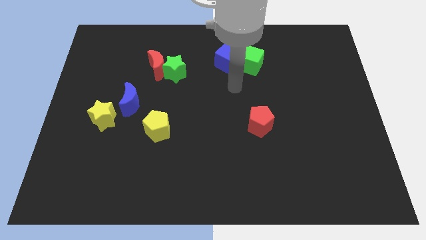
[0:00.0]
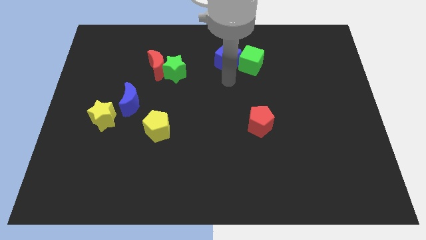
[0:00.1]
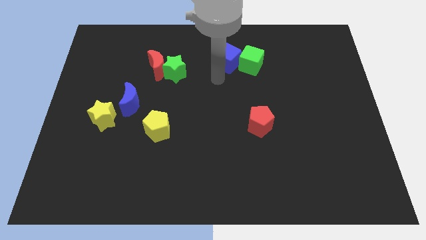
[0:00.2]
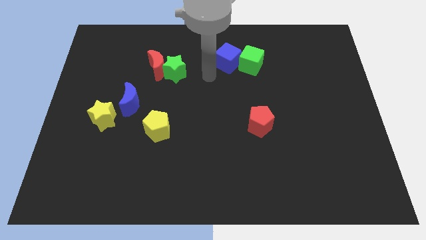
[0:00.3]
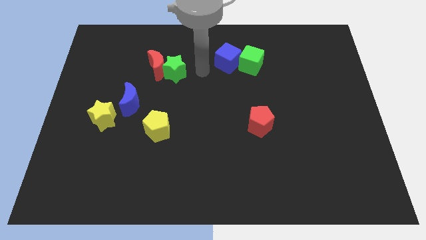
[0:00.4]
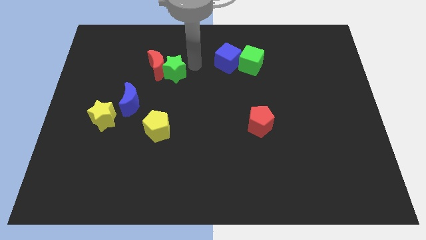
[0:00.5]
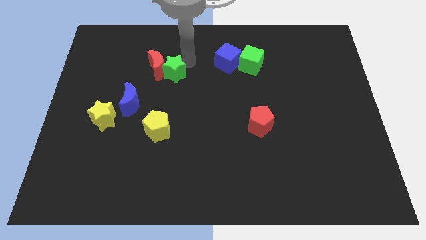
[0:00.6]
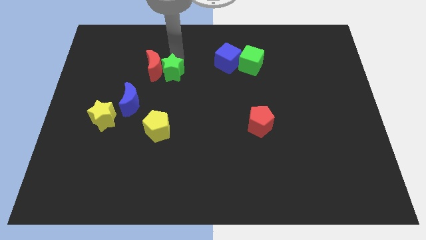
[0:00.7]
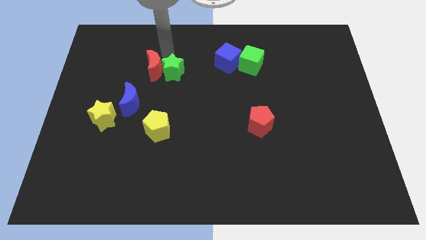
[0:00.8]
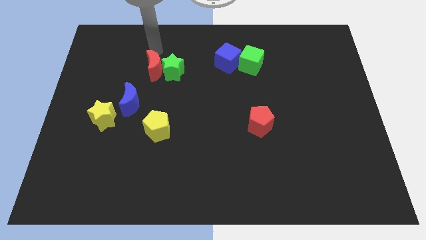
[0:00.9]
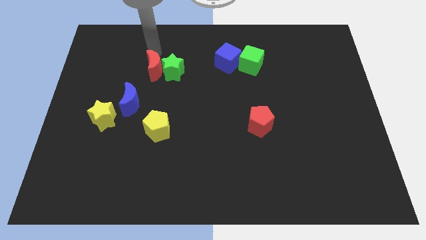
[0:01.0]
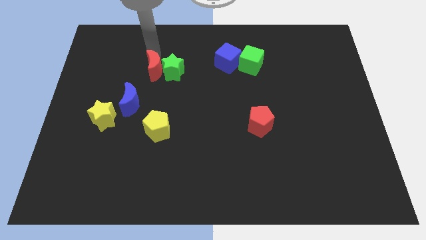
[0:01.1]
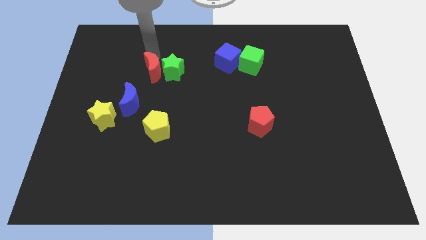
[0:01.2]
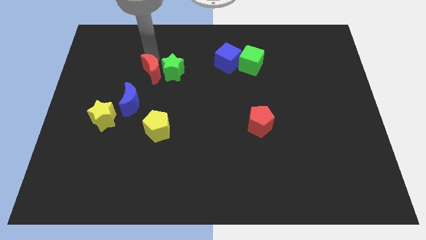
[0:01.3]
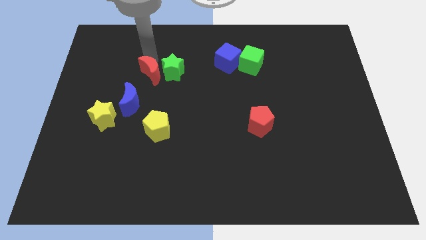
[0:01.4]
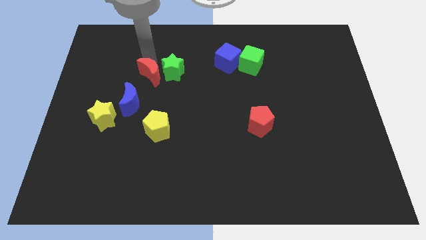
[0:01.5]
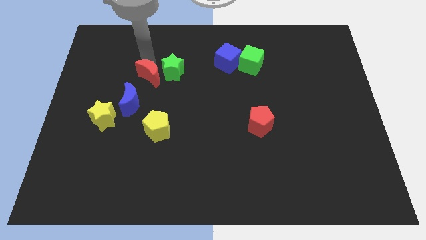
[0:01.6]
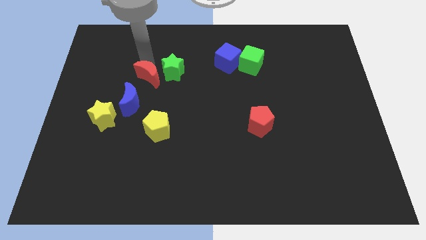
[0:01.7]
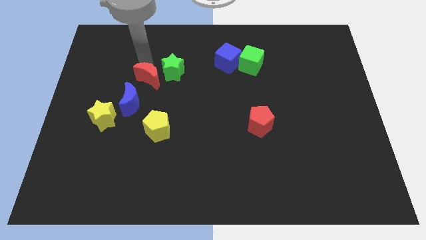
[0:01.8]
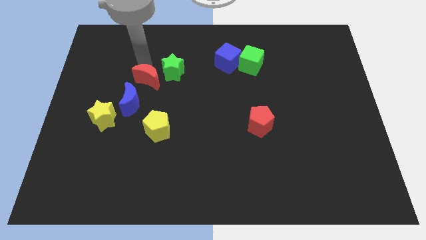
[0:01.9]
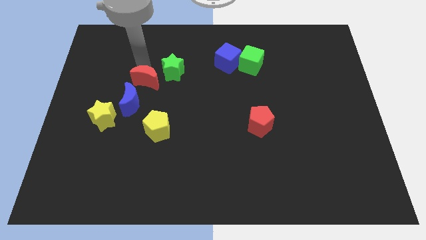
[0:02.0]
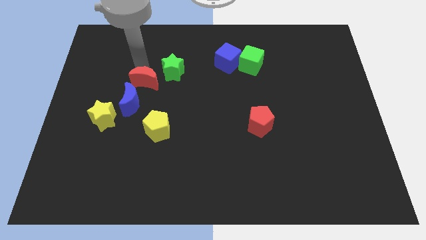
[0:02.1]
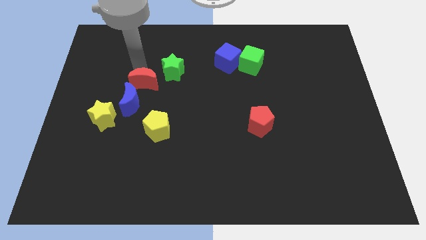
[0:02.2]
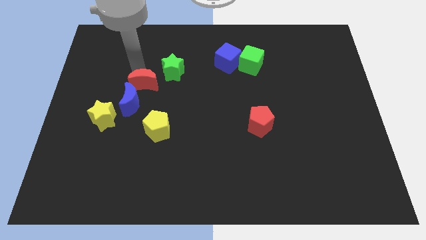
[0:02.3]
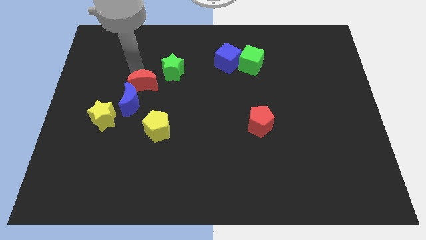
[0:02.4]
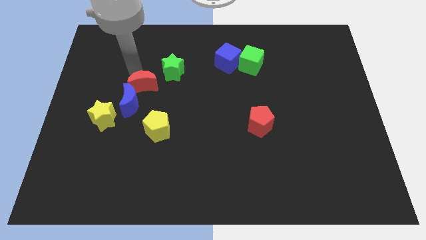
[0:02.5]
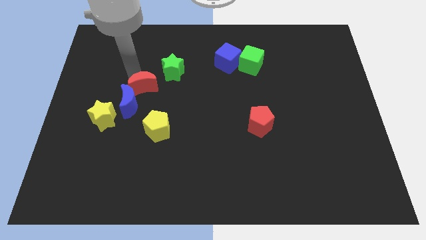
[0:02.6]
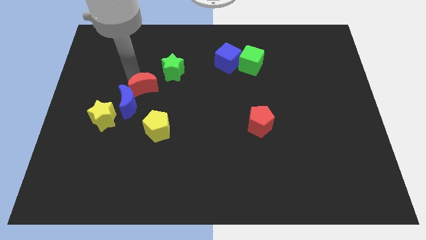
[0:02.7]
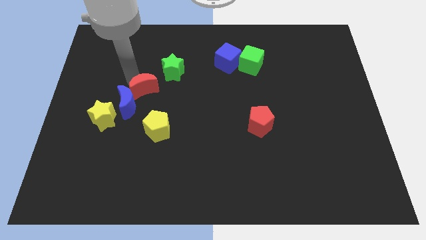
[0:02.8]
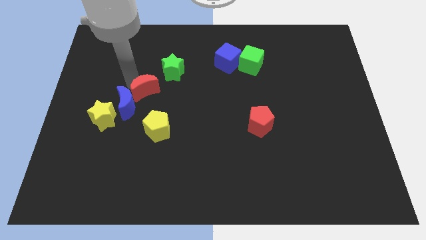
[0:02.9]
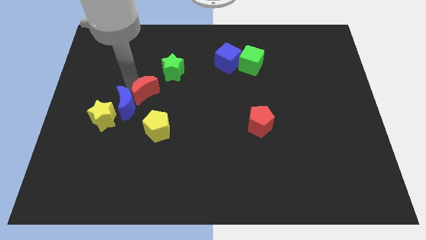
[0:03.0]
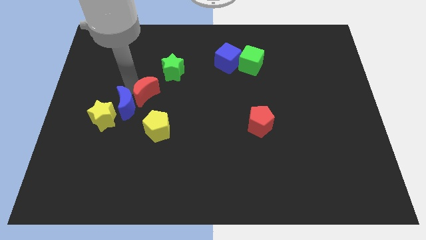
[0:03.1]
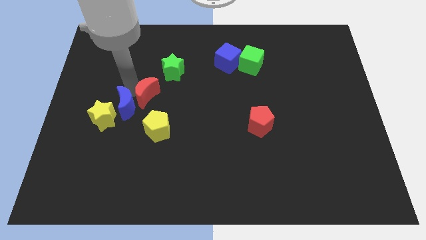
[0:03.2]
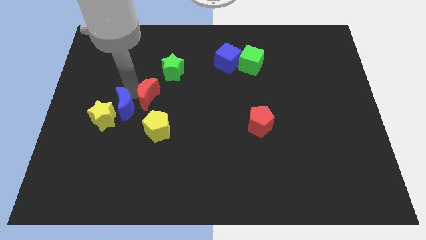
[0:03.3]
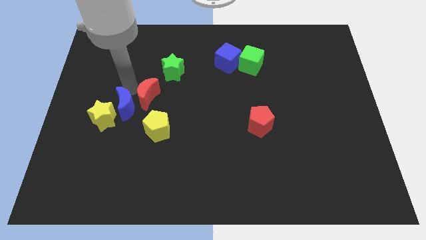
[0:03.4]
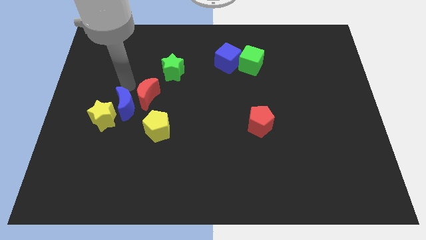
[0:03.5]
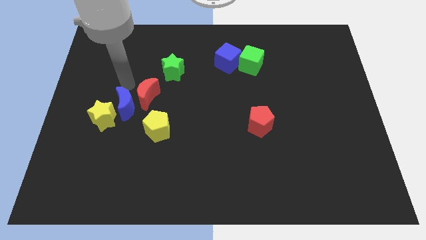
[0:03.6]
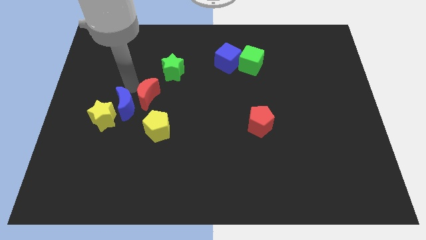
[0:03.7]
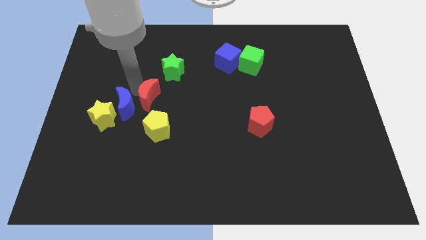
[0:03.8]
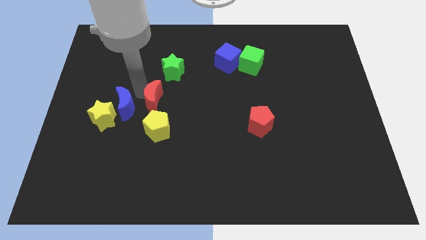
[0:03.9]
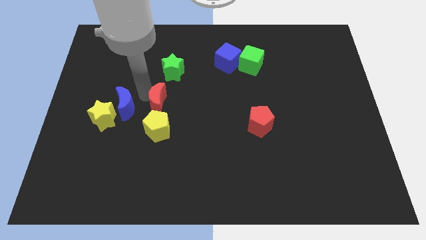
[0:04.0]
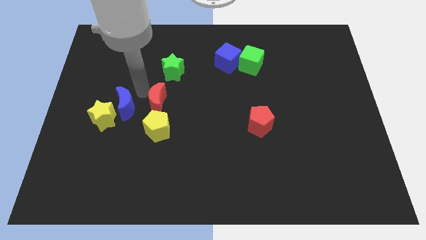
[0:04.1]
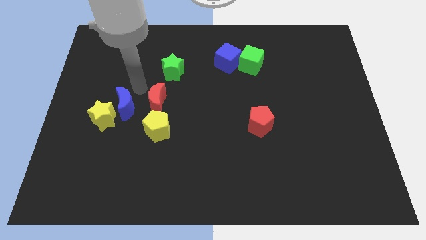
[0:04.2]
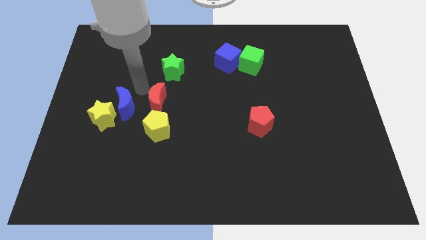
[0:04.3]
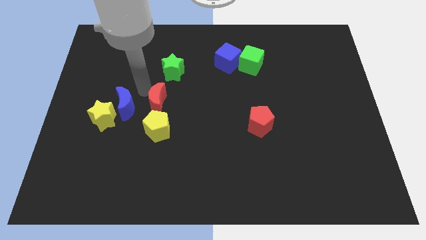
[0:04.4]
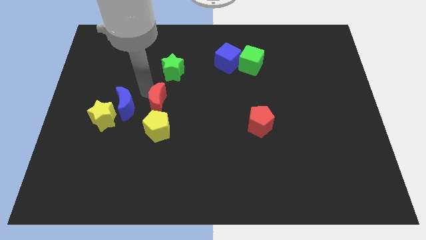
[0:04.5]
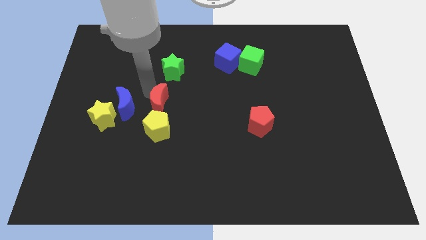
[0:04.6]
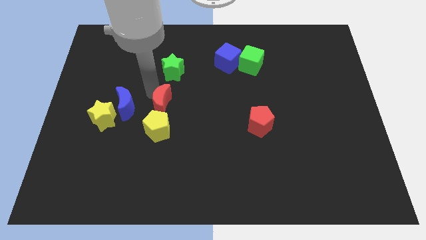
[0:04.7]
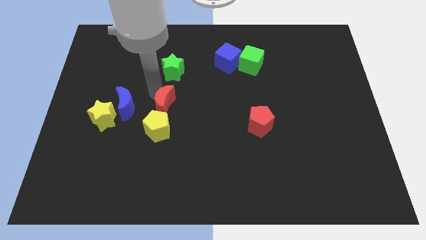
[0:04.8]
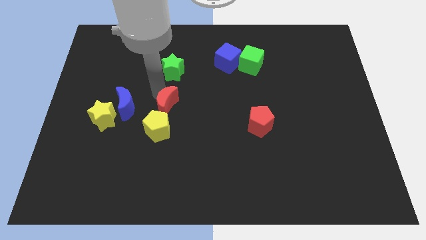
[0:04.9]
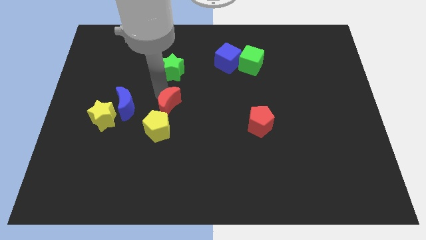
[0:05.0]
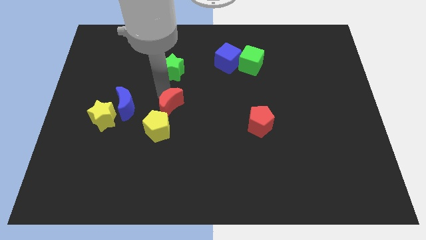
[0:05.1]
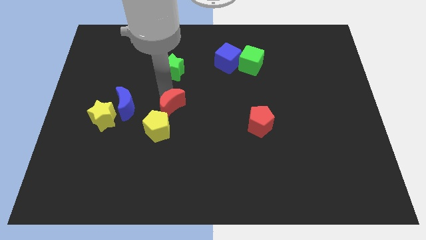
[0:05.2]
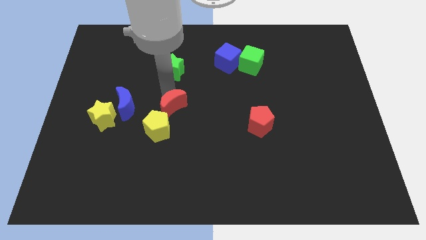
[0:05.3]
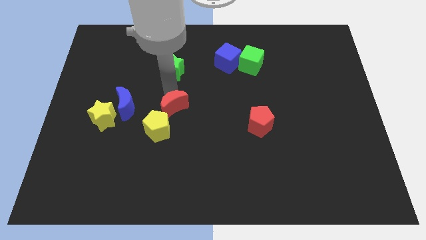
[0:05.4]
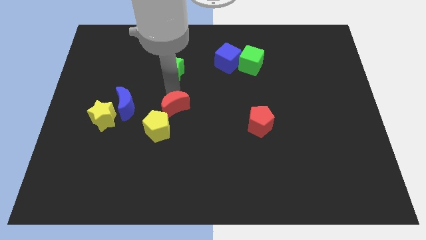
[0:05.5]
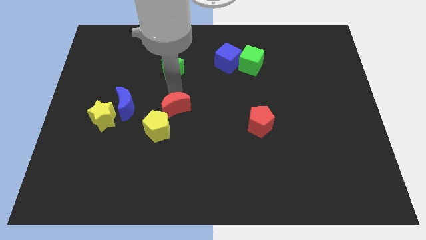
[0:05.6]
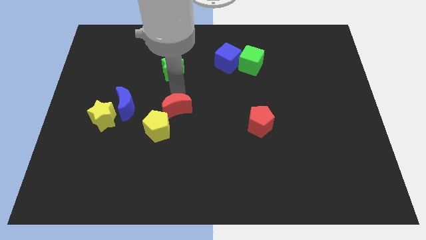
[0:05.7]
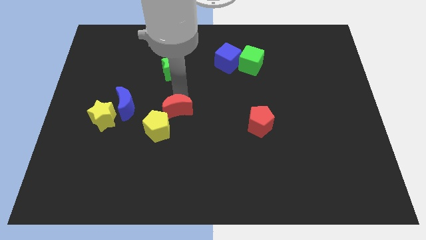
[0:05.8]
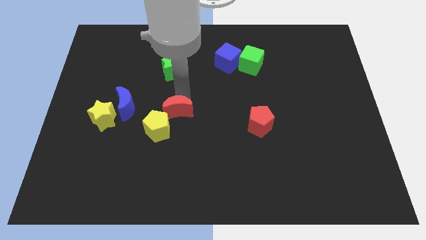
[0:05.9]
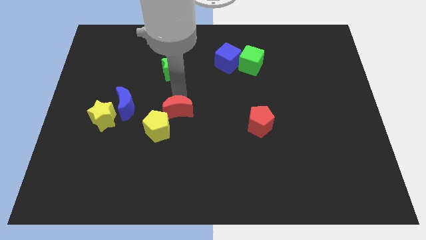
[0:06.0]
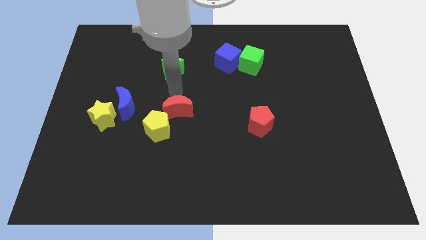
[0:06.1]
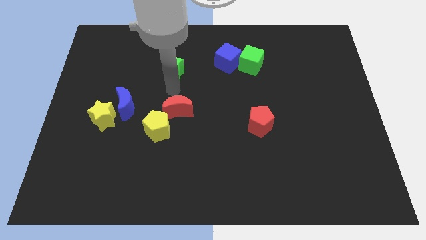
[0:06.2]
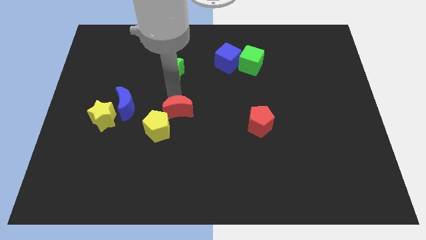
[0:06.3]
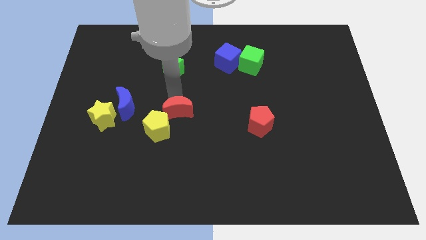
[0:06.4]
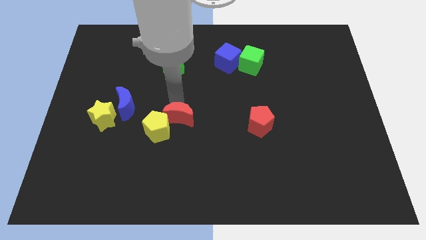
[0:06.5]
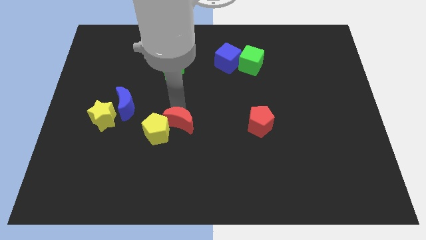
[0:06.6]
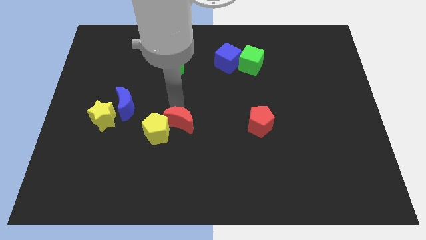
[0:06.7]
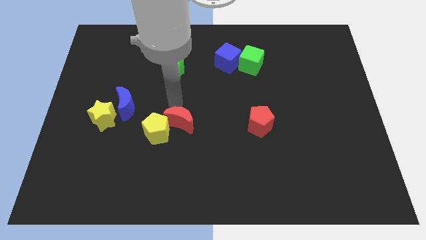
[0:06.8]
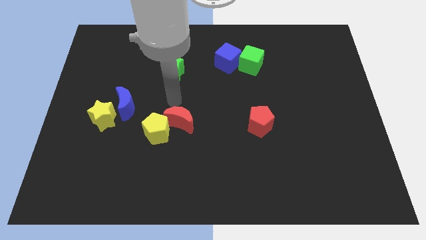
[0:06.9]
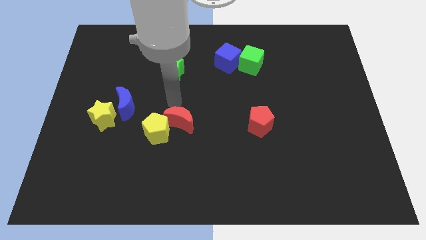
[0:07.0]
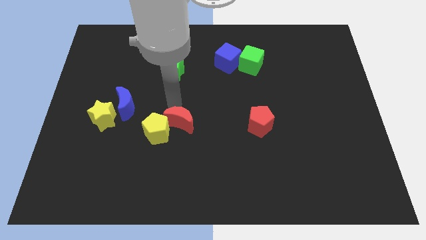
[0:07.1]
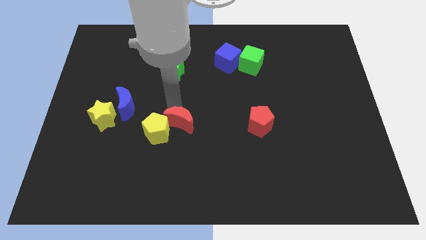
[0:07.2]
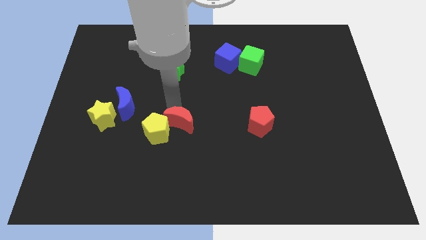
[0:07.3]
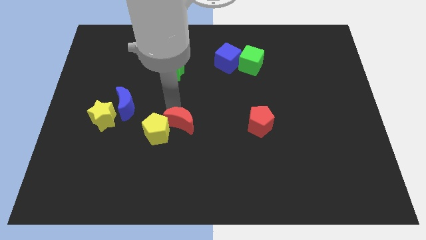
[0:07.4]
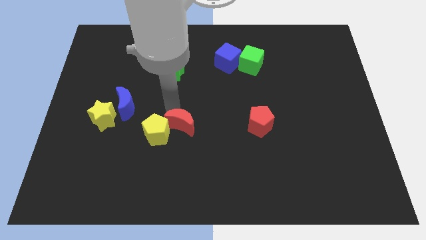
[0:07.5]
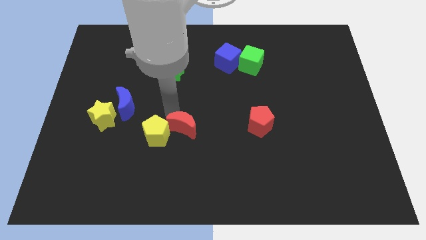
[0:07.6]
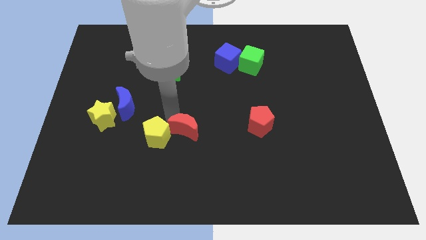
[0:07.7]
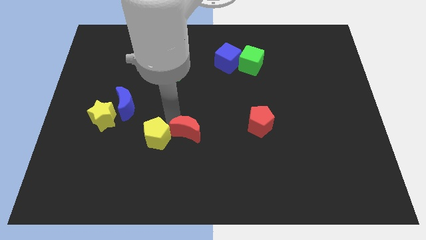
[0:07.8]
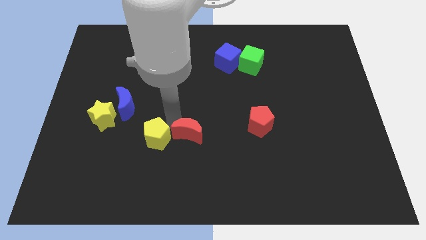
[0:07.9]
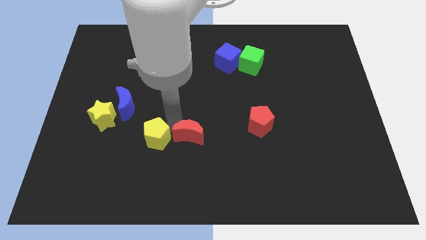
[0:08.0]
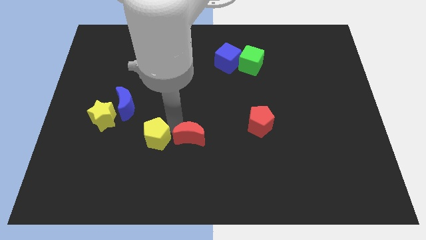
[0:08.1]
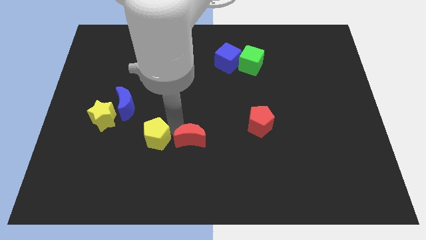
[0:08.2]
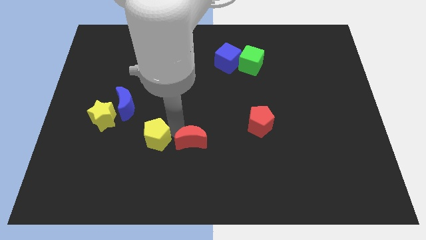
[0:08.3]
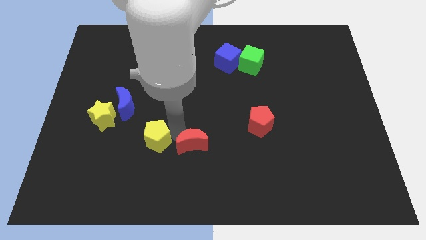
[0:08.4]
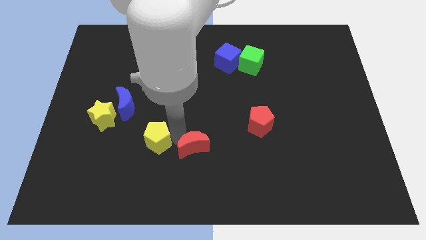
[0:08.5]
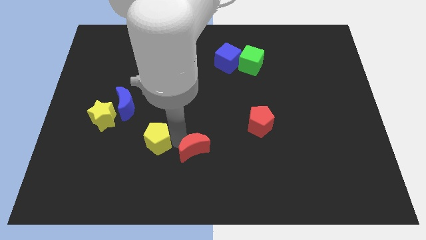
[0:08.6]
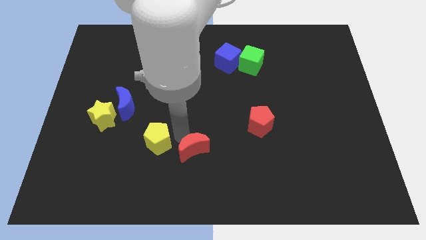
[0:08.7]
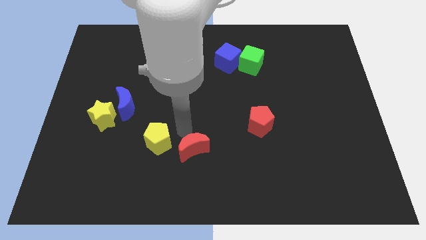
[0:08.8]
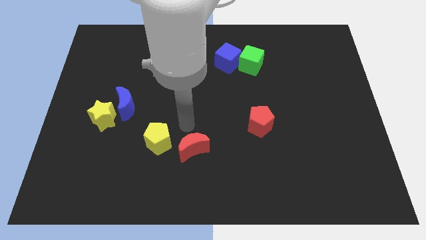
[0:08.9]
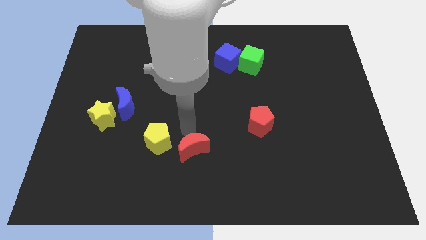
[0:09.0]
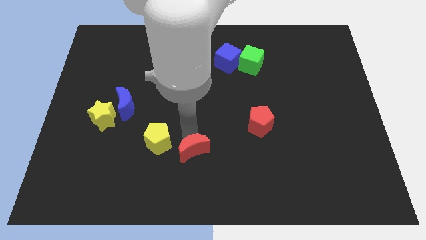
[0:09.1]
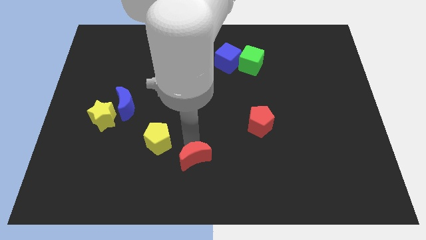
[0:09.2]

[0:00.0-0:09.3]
move the red moon to the bottom side
